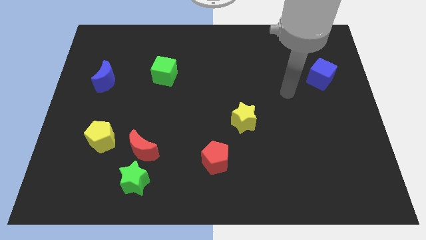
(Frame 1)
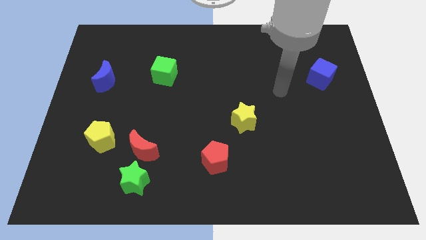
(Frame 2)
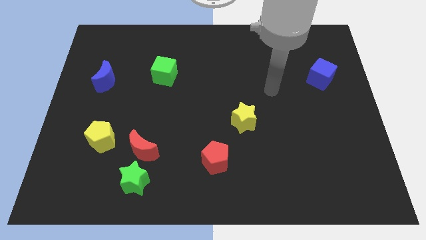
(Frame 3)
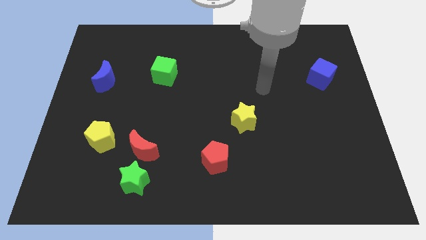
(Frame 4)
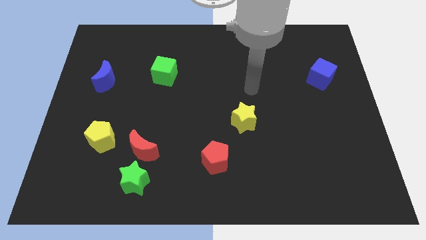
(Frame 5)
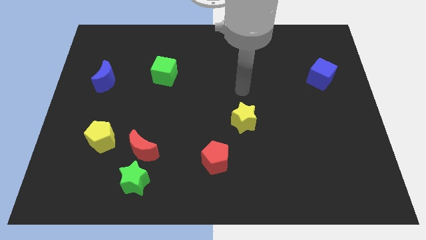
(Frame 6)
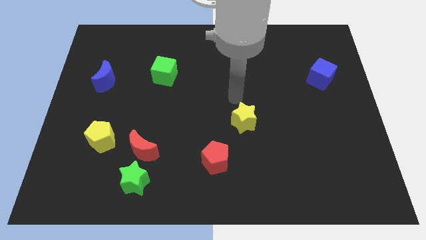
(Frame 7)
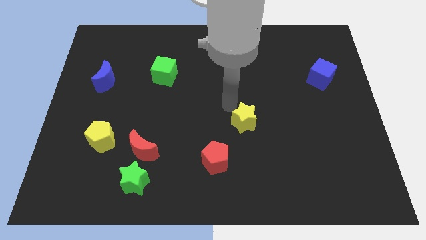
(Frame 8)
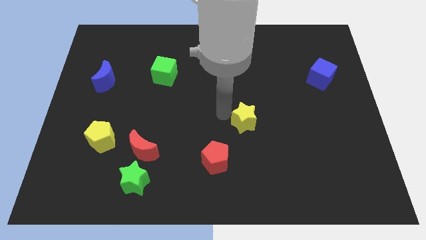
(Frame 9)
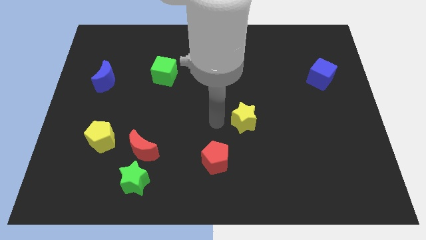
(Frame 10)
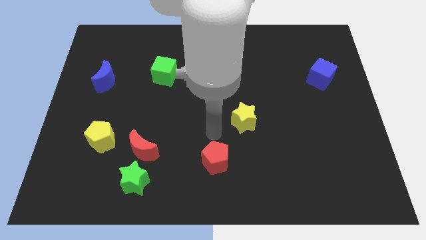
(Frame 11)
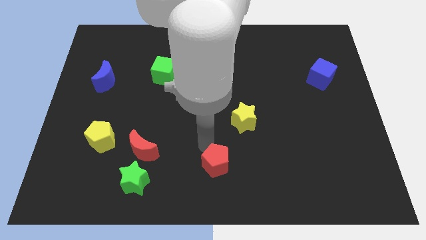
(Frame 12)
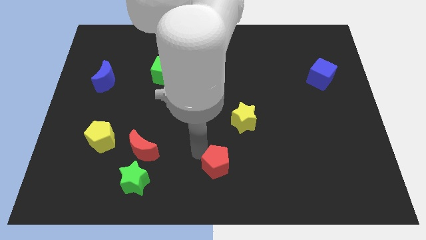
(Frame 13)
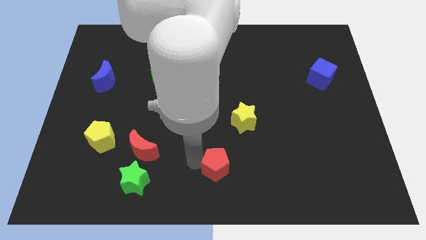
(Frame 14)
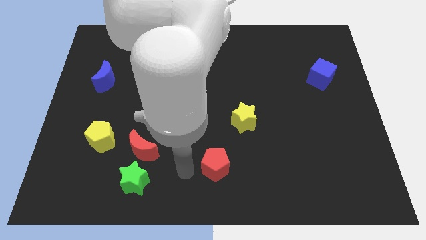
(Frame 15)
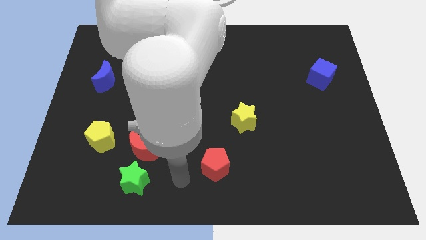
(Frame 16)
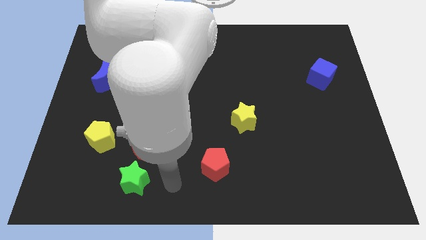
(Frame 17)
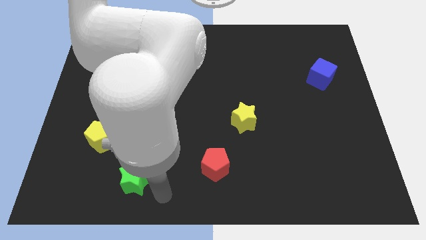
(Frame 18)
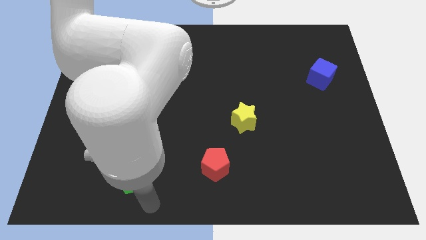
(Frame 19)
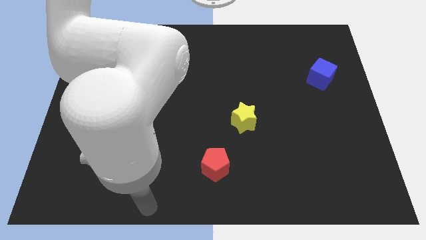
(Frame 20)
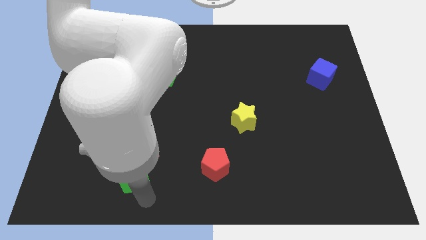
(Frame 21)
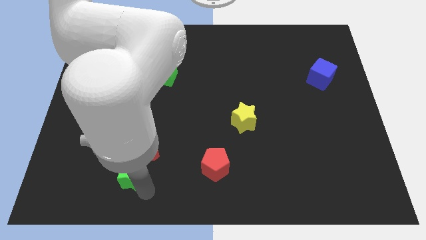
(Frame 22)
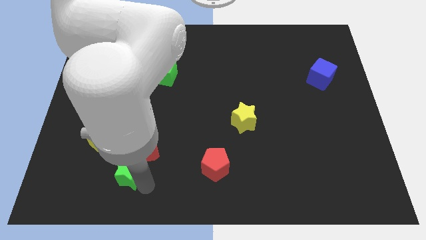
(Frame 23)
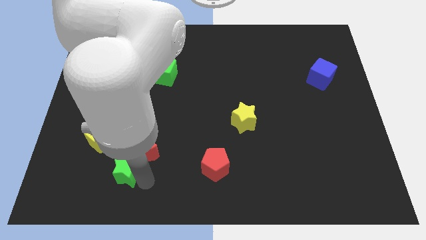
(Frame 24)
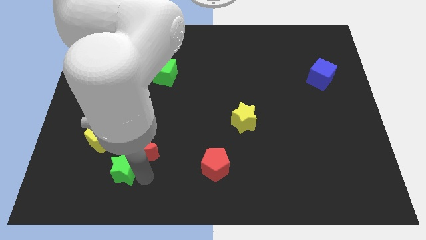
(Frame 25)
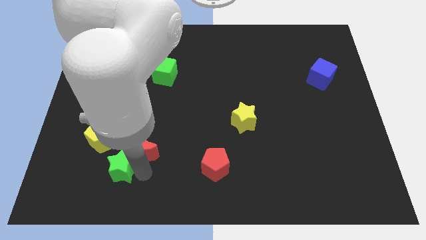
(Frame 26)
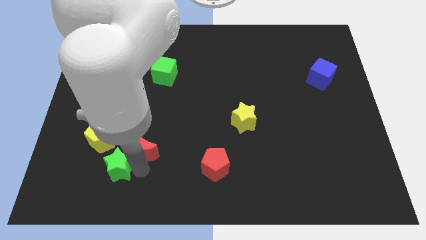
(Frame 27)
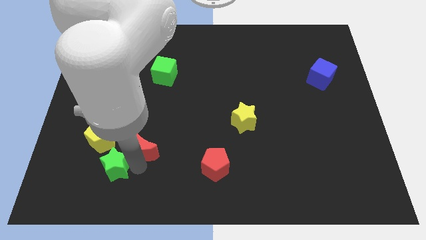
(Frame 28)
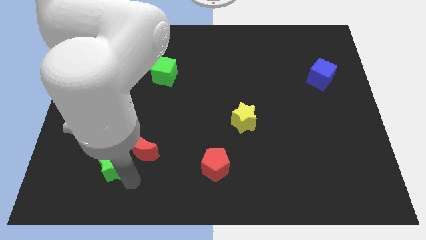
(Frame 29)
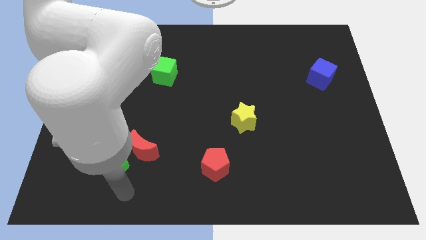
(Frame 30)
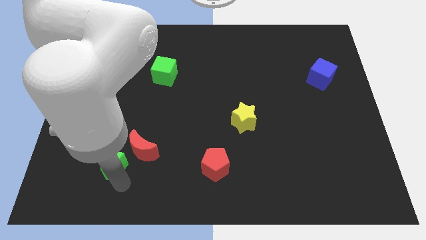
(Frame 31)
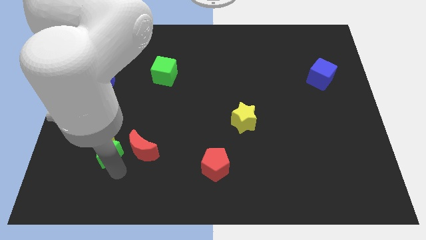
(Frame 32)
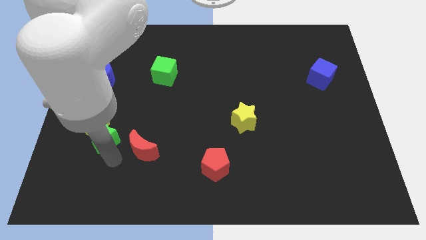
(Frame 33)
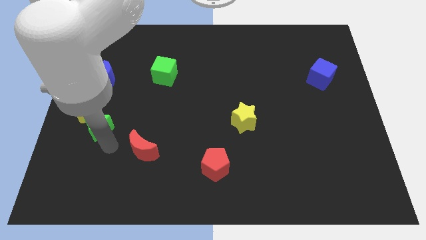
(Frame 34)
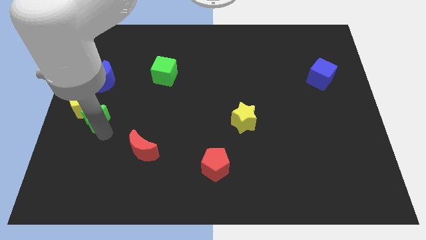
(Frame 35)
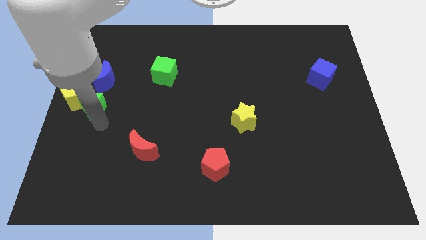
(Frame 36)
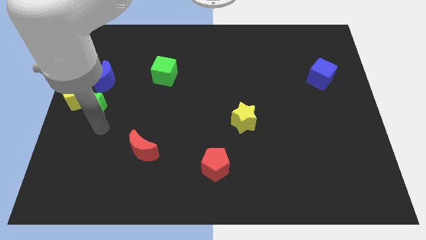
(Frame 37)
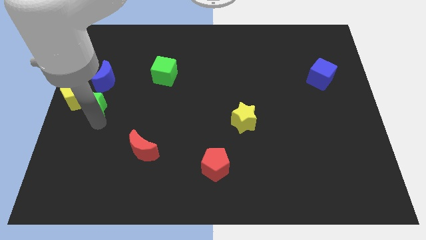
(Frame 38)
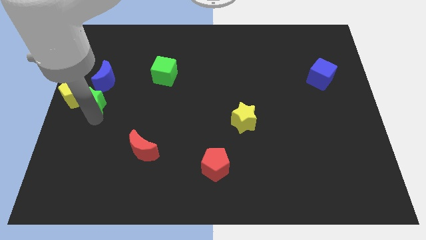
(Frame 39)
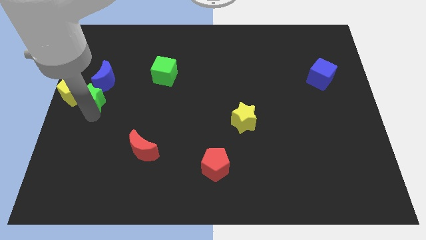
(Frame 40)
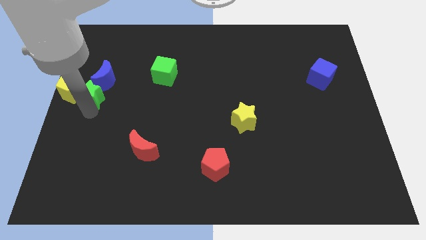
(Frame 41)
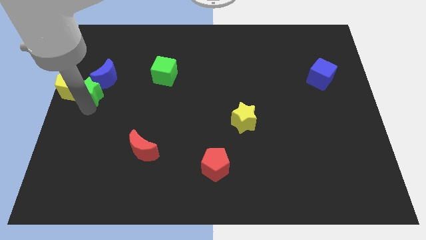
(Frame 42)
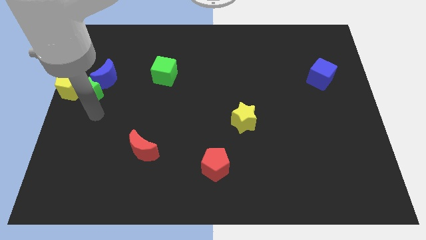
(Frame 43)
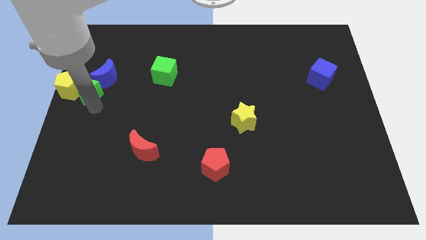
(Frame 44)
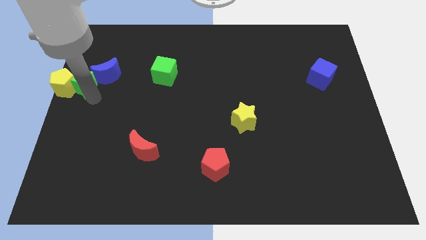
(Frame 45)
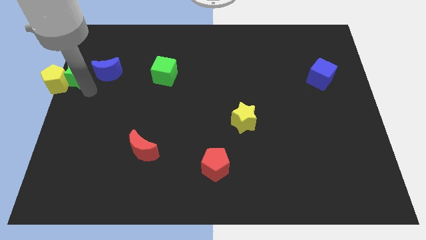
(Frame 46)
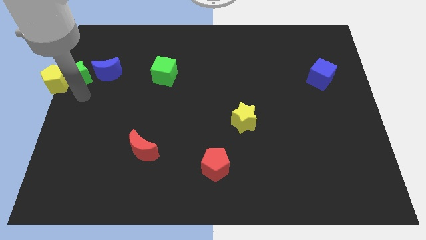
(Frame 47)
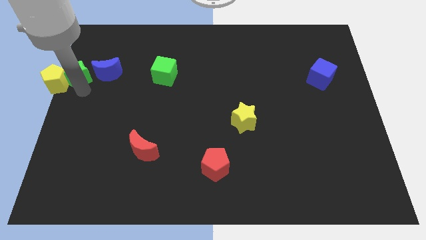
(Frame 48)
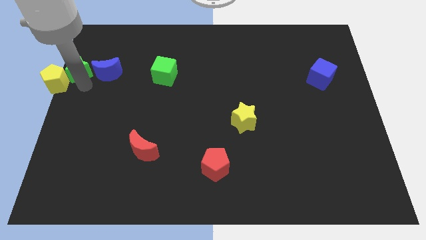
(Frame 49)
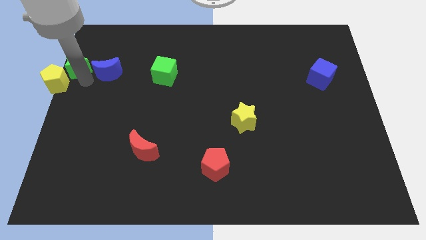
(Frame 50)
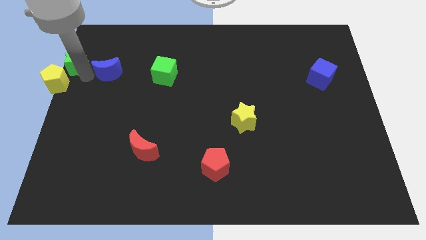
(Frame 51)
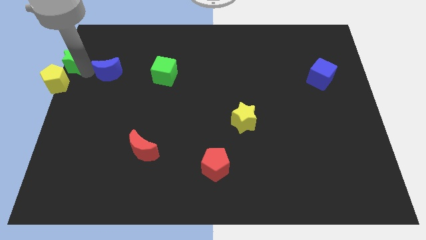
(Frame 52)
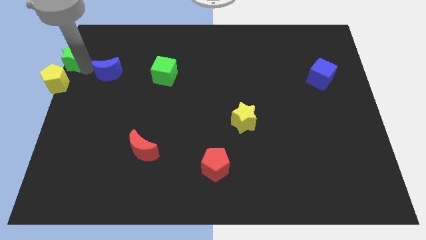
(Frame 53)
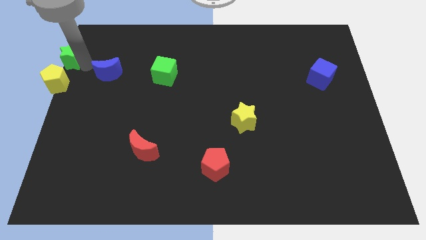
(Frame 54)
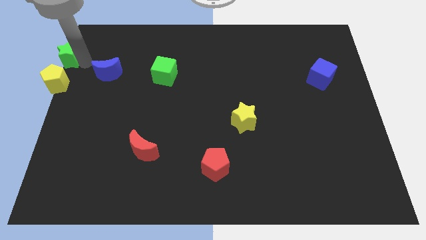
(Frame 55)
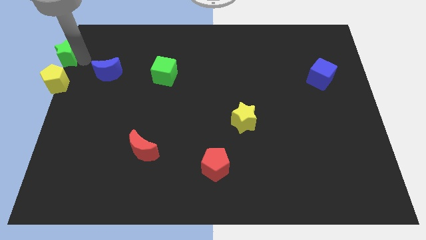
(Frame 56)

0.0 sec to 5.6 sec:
slide the green star to the upper left corner

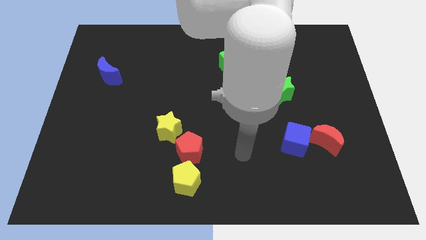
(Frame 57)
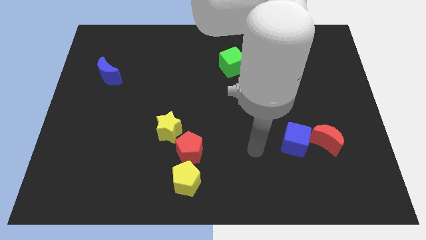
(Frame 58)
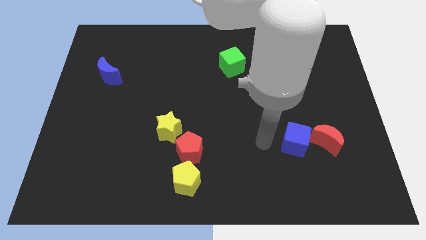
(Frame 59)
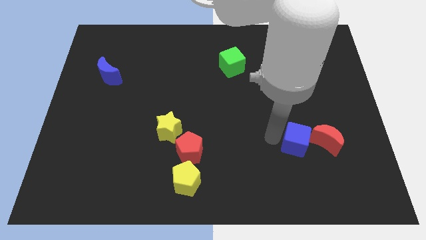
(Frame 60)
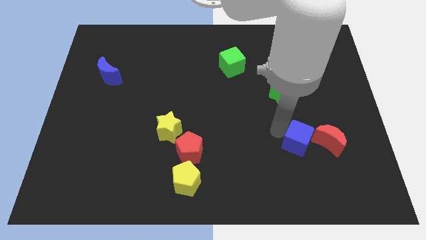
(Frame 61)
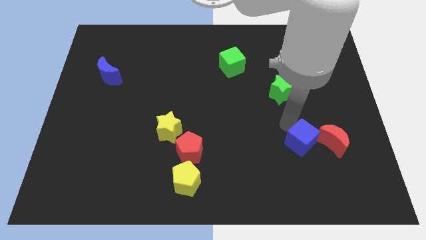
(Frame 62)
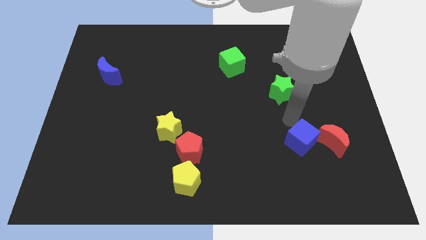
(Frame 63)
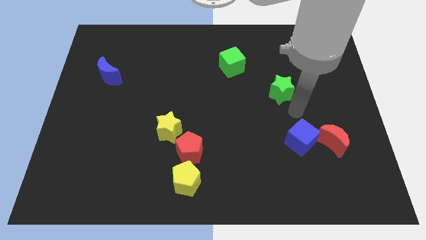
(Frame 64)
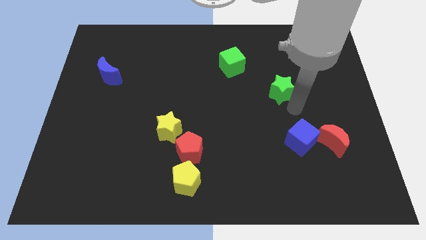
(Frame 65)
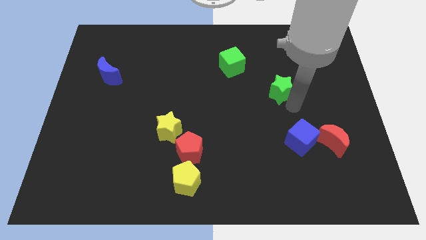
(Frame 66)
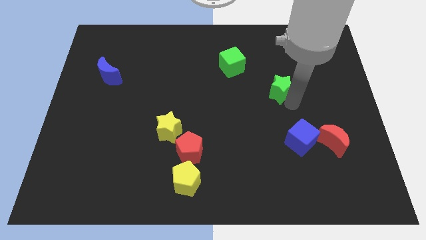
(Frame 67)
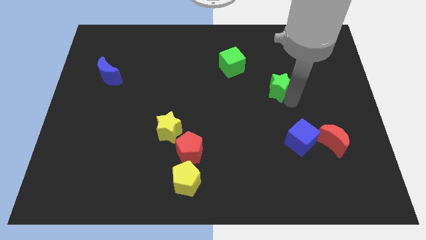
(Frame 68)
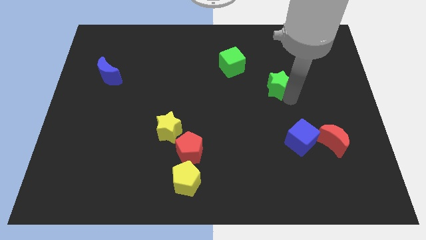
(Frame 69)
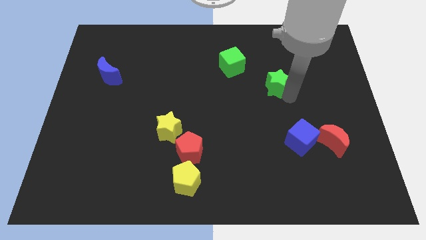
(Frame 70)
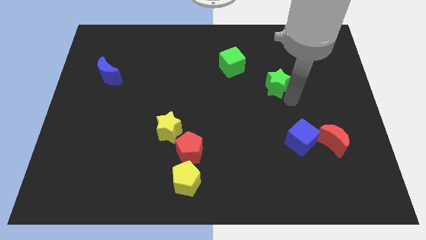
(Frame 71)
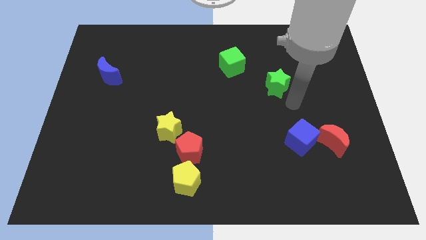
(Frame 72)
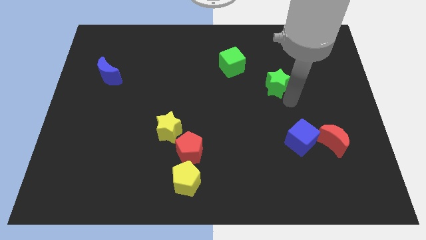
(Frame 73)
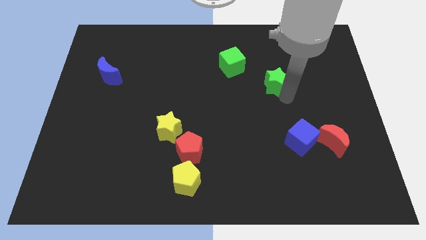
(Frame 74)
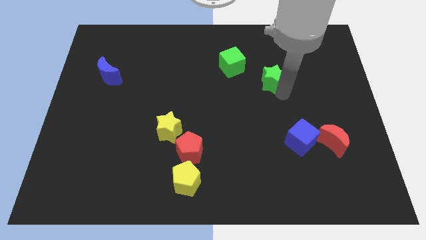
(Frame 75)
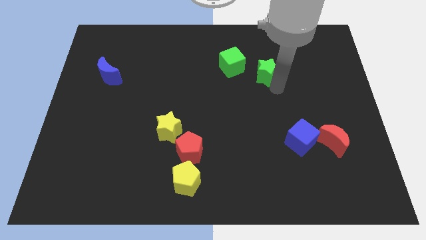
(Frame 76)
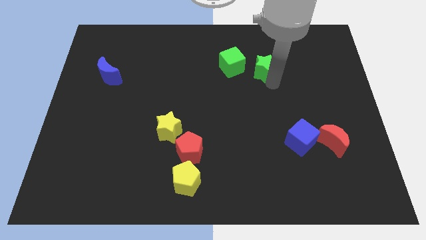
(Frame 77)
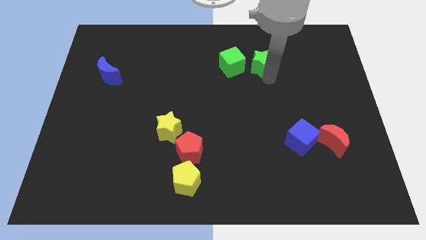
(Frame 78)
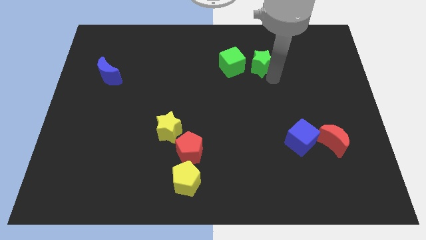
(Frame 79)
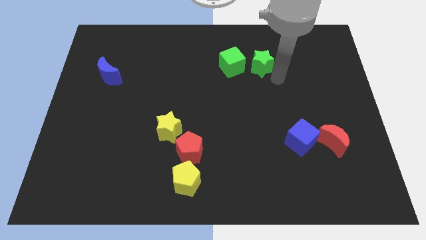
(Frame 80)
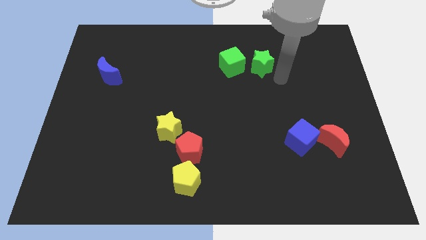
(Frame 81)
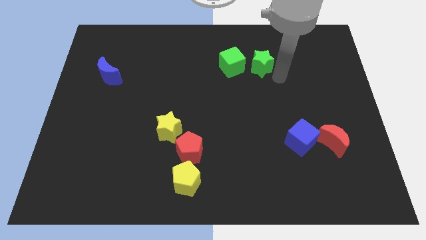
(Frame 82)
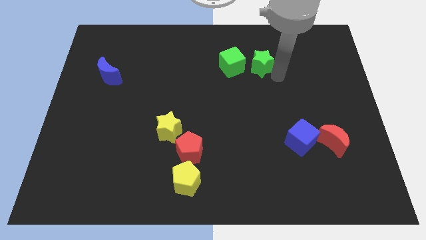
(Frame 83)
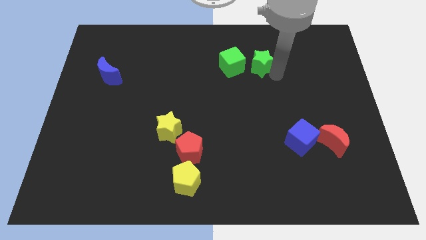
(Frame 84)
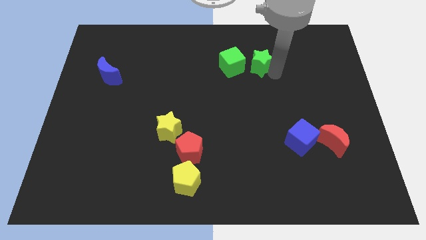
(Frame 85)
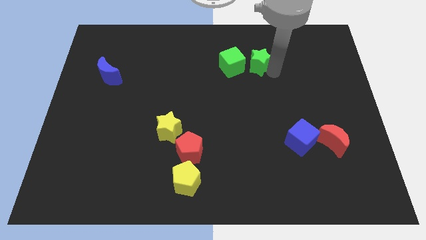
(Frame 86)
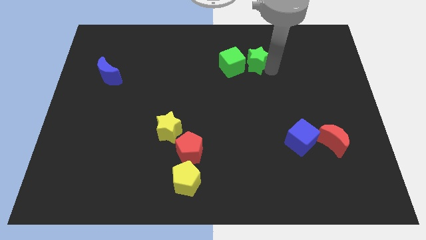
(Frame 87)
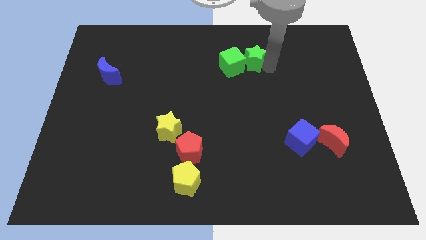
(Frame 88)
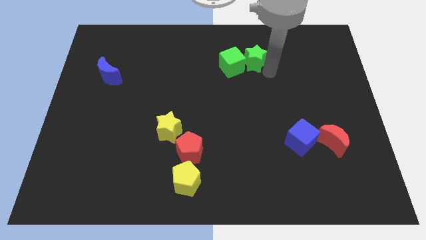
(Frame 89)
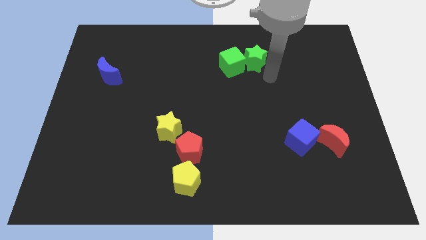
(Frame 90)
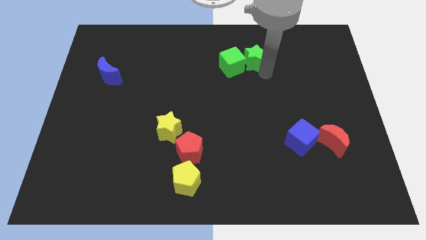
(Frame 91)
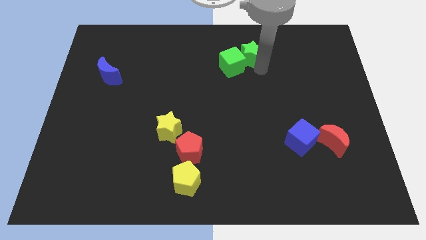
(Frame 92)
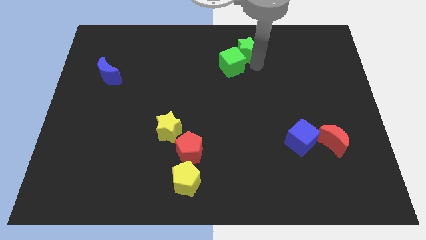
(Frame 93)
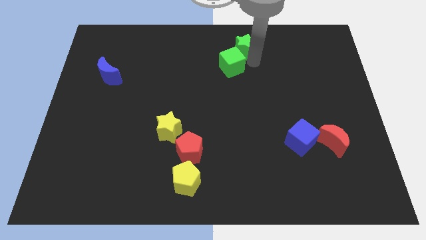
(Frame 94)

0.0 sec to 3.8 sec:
slide the green star to the towards your base
